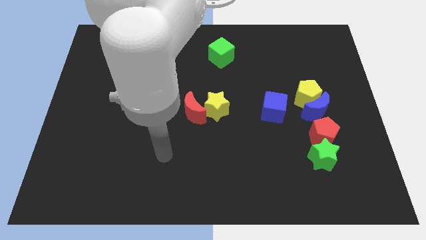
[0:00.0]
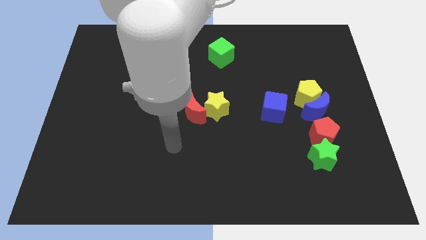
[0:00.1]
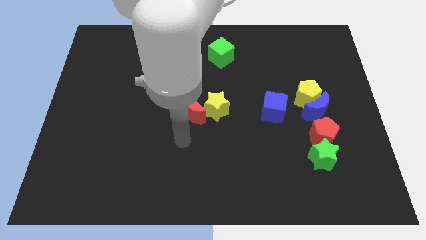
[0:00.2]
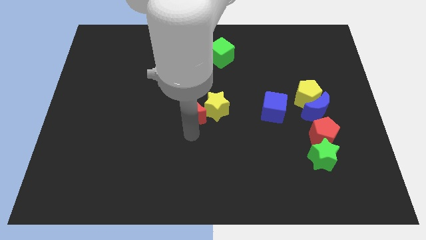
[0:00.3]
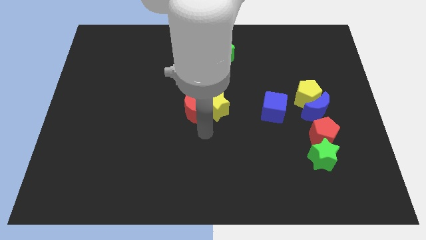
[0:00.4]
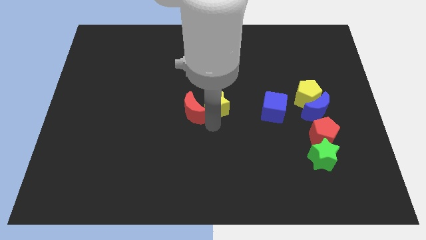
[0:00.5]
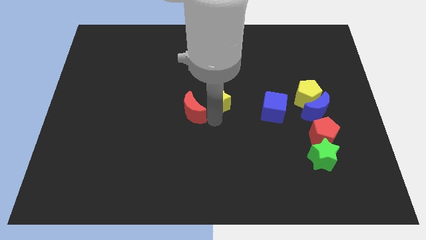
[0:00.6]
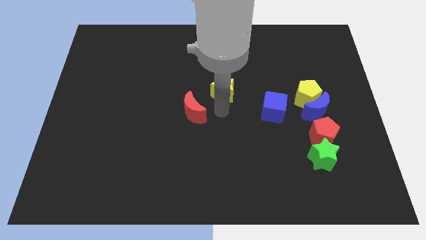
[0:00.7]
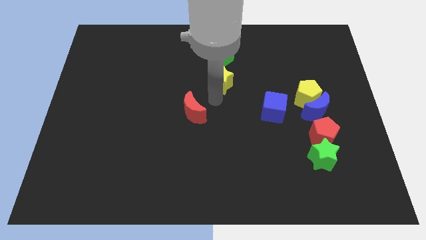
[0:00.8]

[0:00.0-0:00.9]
move the red moon away from the yellow star

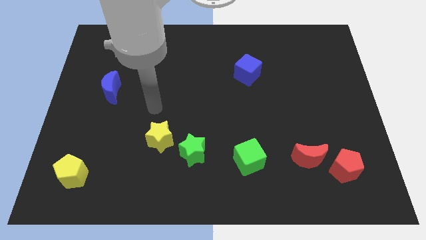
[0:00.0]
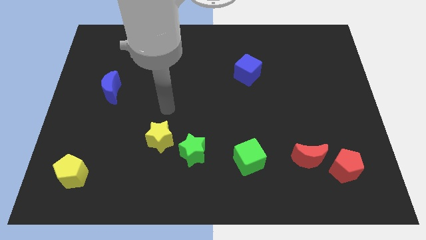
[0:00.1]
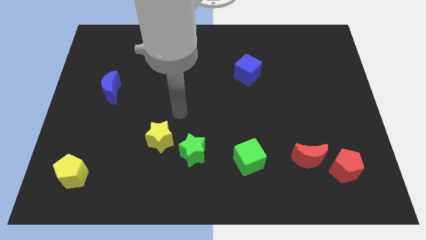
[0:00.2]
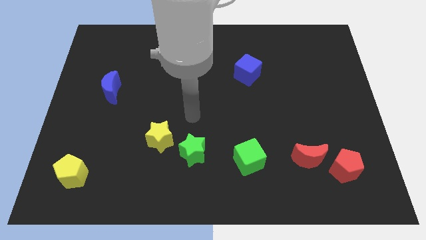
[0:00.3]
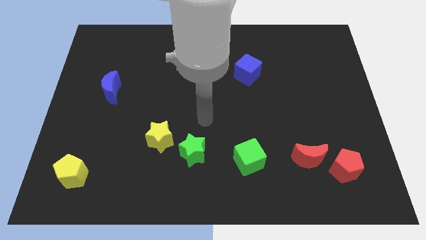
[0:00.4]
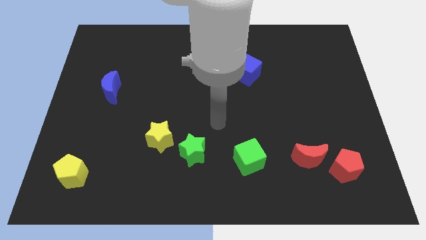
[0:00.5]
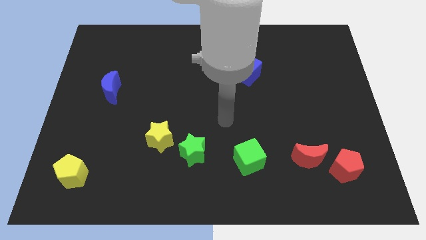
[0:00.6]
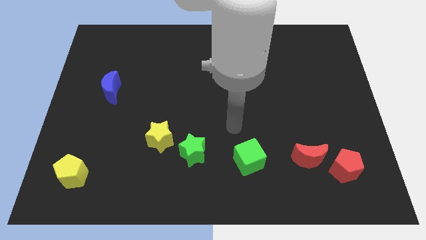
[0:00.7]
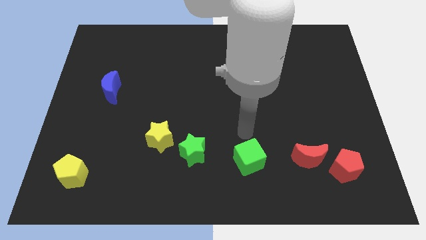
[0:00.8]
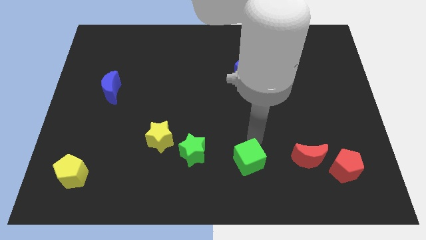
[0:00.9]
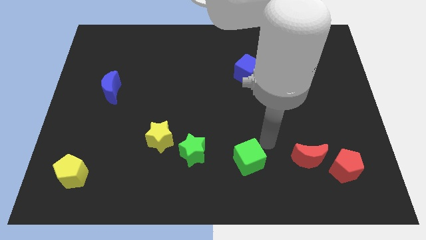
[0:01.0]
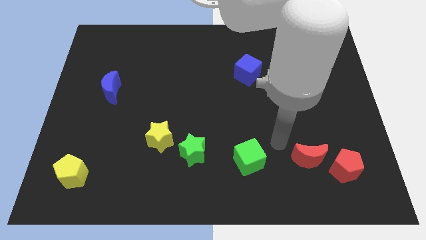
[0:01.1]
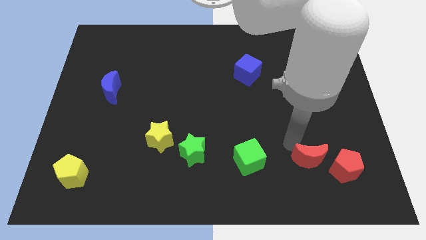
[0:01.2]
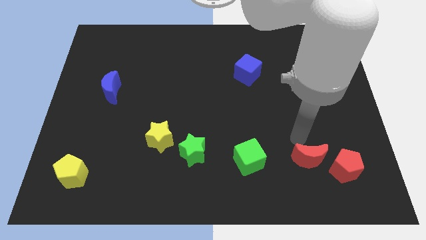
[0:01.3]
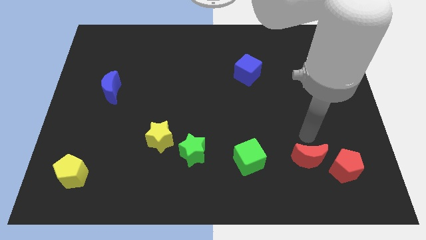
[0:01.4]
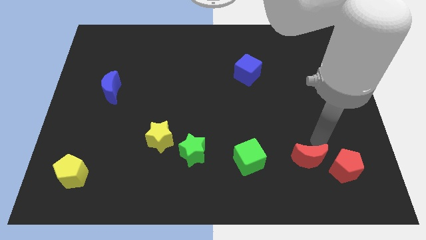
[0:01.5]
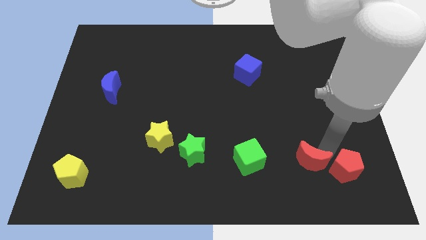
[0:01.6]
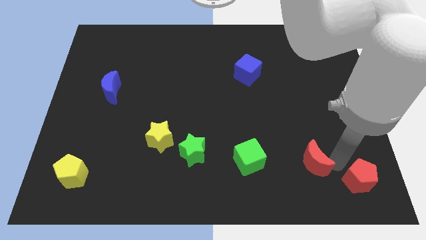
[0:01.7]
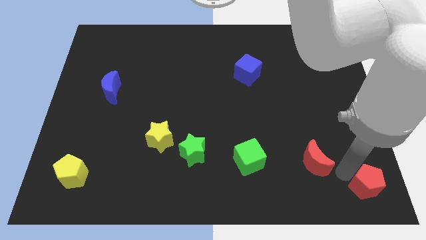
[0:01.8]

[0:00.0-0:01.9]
pull the red moon apart from the red pentagon

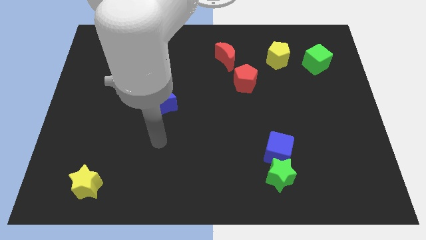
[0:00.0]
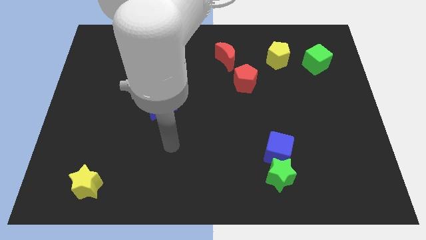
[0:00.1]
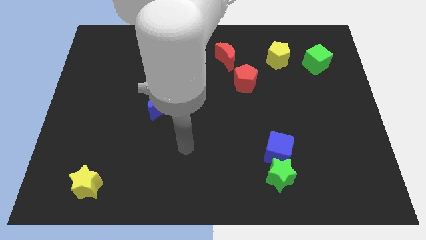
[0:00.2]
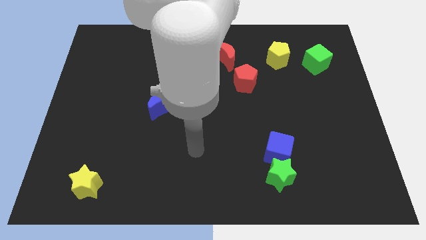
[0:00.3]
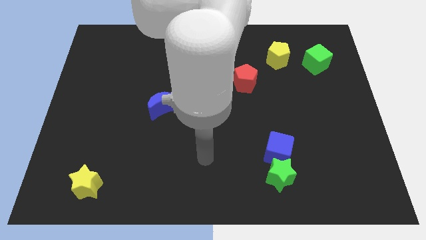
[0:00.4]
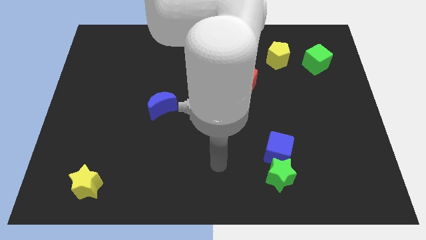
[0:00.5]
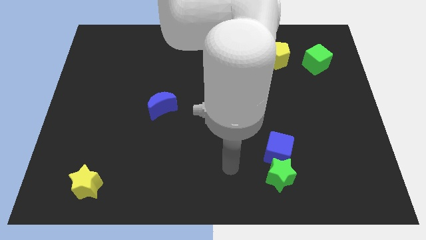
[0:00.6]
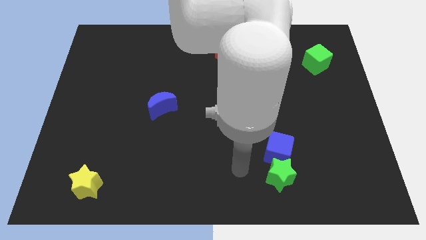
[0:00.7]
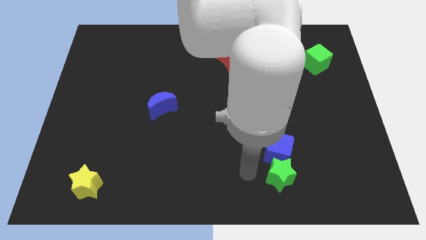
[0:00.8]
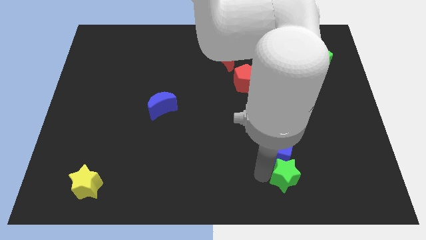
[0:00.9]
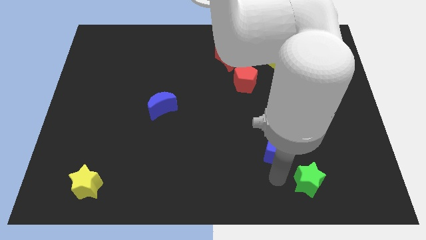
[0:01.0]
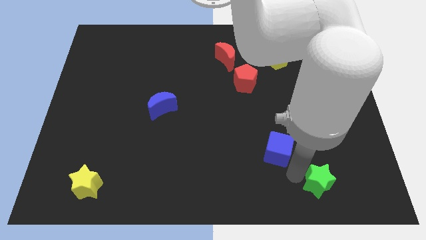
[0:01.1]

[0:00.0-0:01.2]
separate the blue cube from the green star

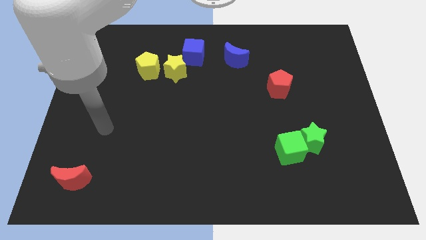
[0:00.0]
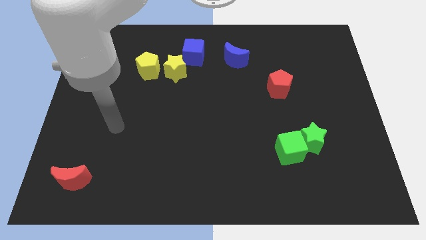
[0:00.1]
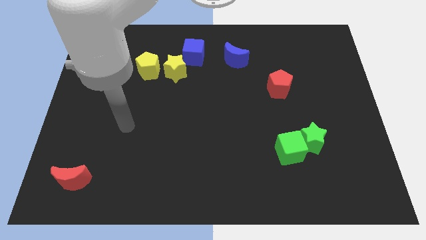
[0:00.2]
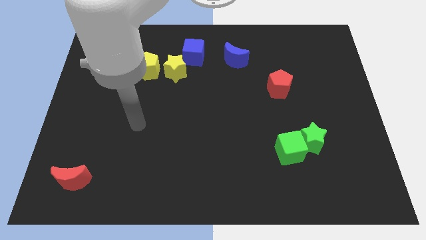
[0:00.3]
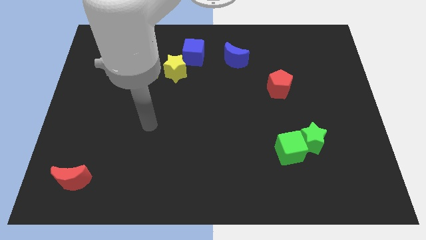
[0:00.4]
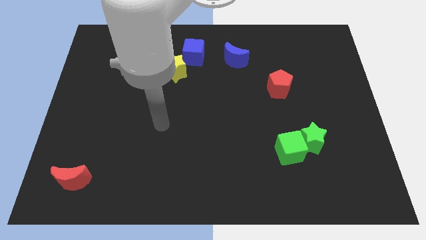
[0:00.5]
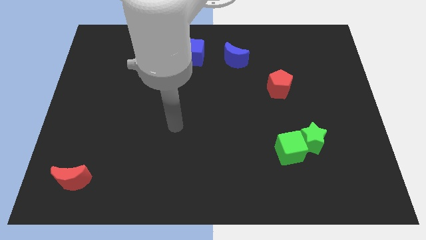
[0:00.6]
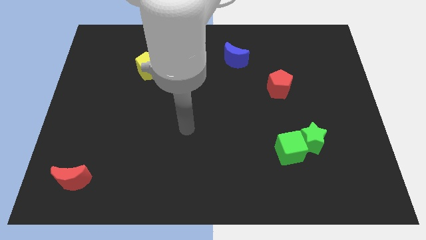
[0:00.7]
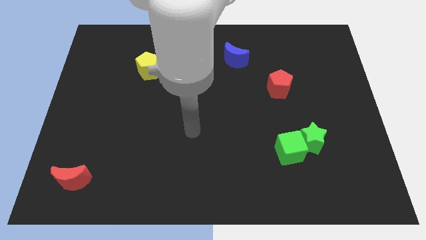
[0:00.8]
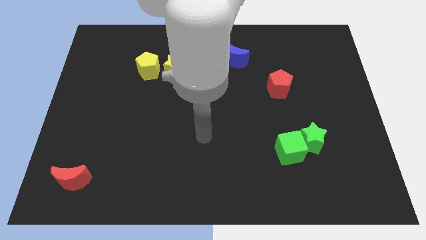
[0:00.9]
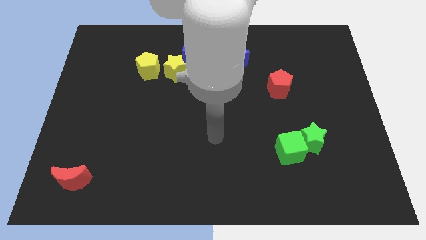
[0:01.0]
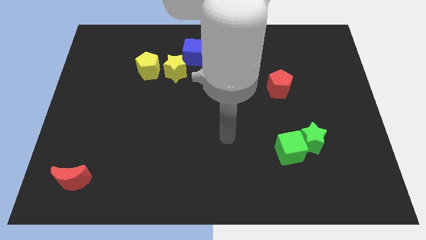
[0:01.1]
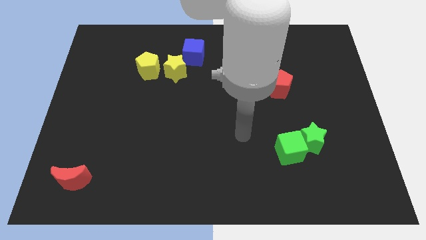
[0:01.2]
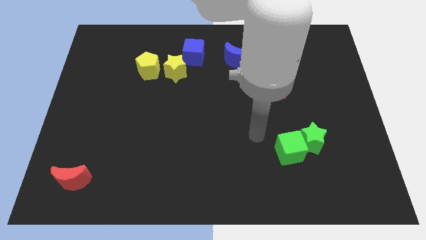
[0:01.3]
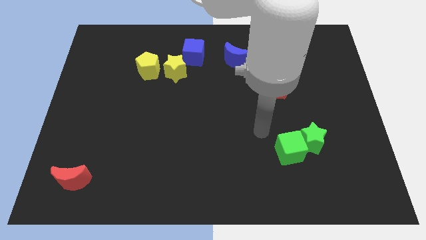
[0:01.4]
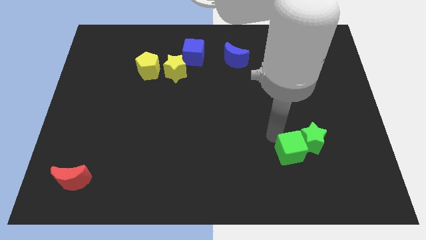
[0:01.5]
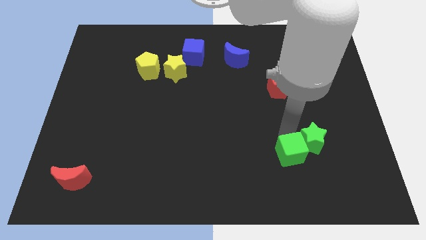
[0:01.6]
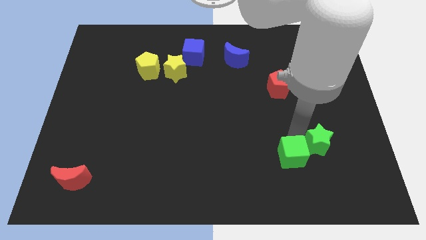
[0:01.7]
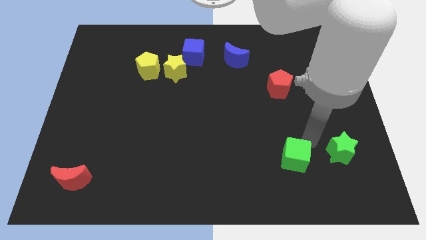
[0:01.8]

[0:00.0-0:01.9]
separate the green cube from the green star

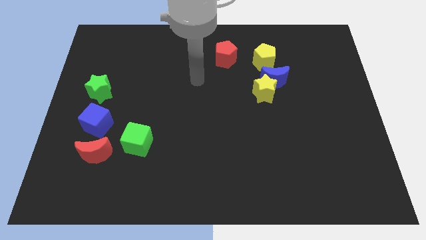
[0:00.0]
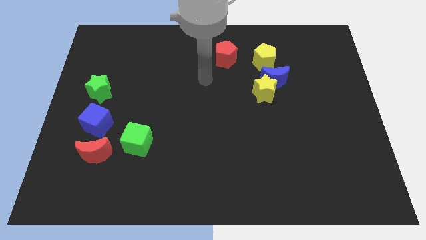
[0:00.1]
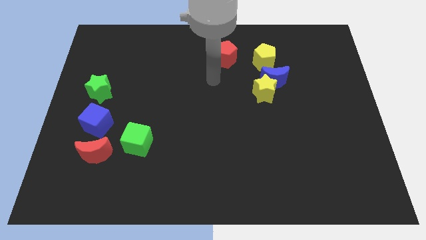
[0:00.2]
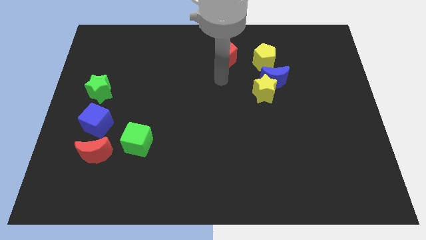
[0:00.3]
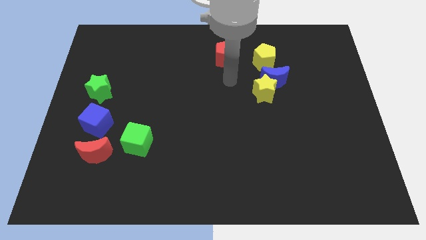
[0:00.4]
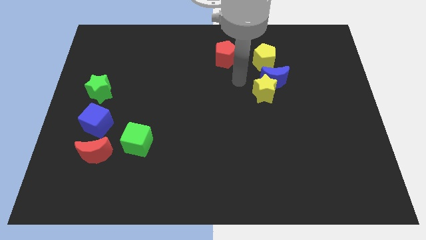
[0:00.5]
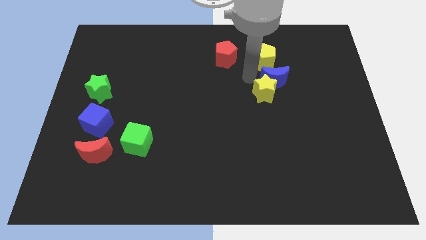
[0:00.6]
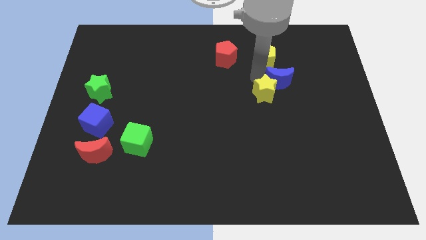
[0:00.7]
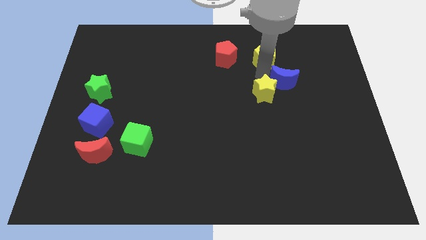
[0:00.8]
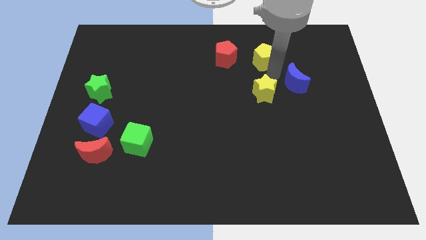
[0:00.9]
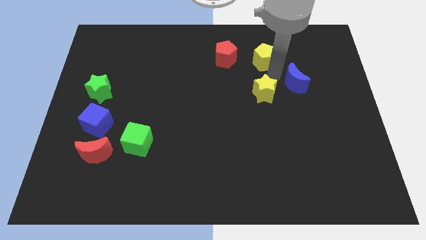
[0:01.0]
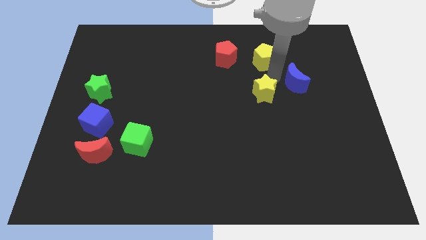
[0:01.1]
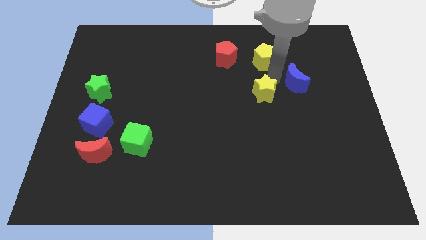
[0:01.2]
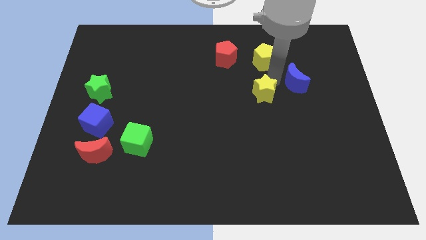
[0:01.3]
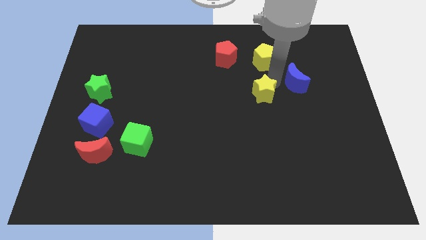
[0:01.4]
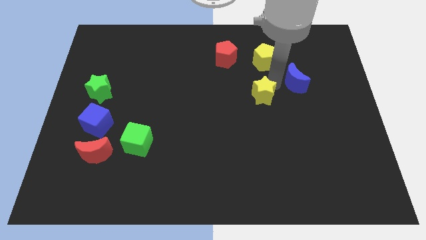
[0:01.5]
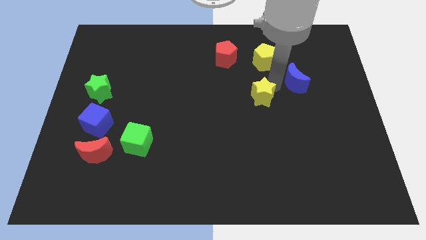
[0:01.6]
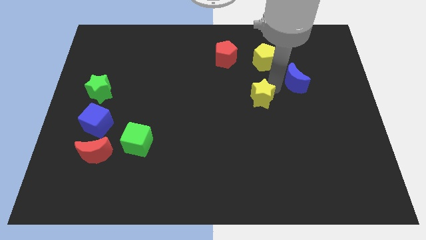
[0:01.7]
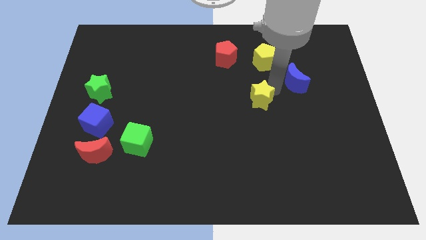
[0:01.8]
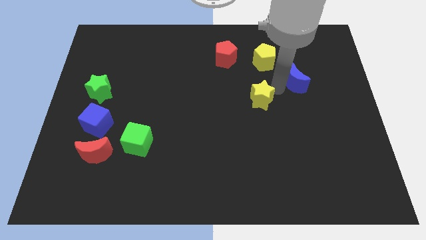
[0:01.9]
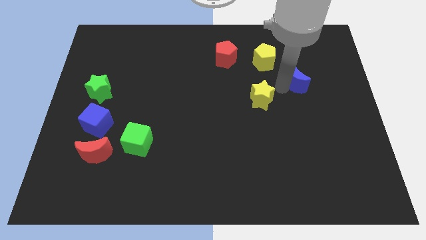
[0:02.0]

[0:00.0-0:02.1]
pull the yellow star apart from the blue moon

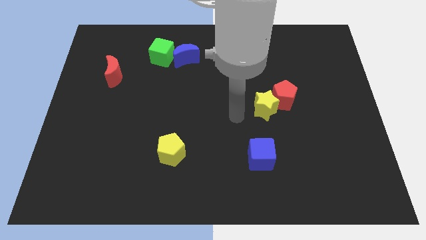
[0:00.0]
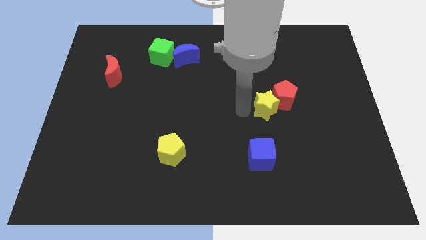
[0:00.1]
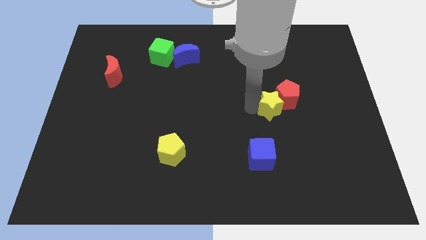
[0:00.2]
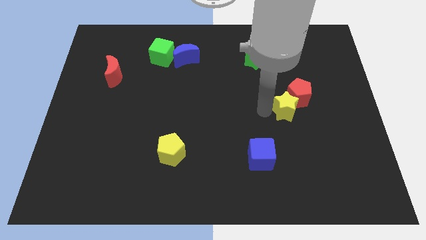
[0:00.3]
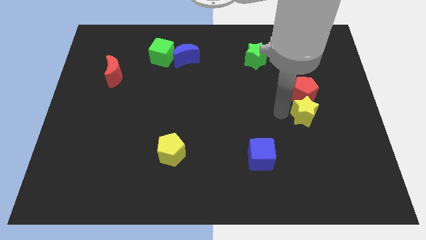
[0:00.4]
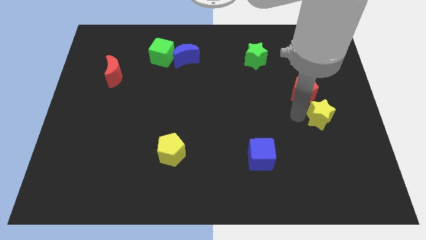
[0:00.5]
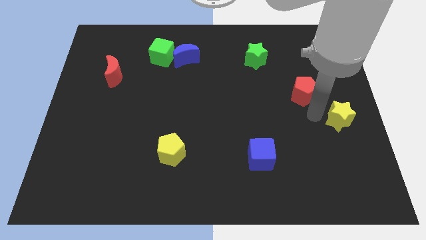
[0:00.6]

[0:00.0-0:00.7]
move the red pentagon away from the yellow star

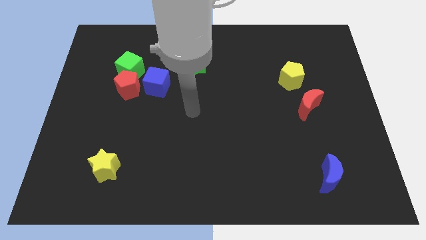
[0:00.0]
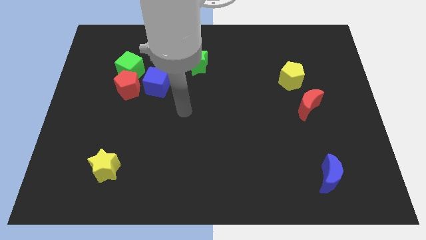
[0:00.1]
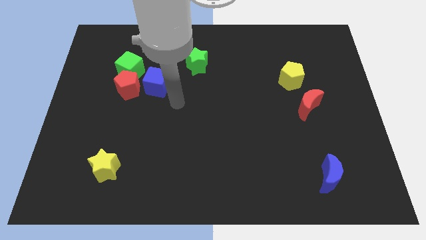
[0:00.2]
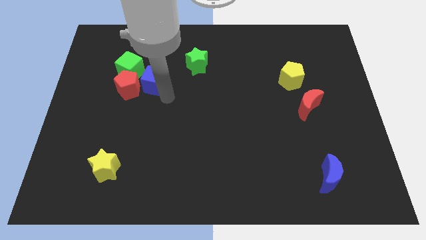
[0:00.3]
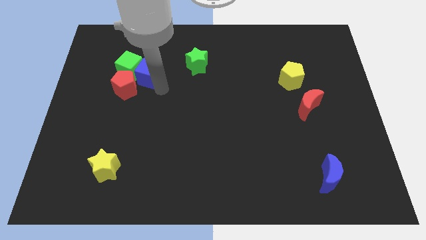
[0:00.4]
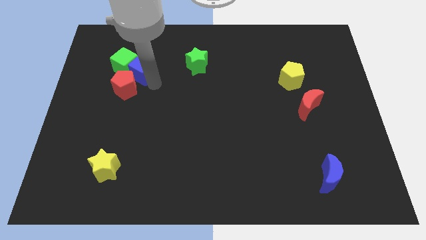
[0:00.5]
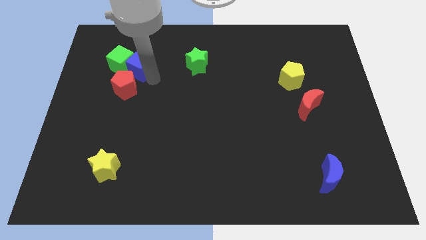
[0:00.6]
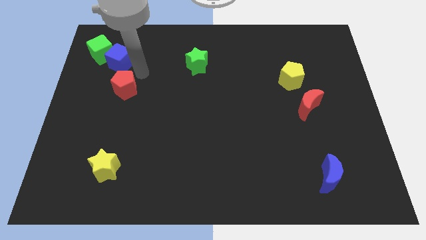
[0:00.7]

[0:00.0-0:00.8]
move the red pentagon away from the green cube and blue cube
